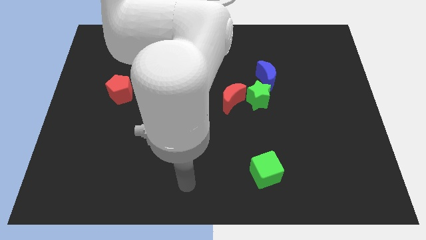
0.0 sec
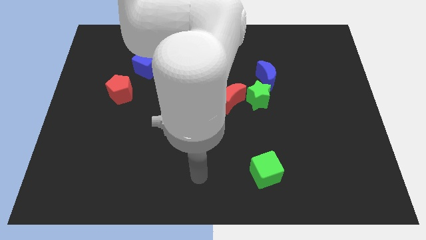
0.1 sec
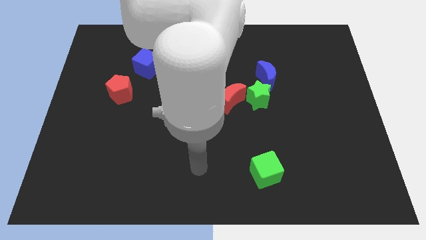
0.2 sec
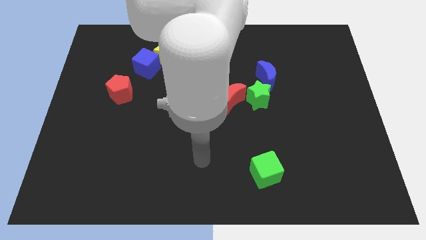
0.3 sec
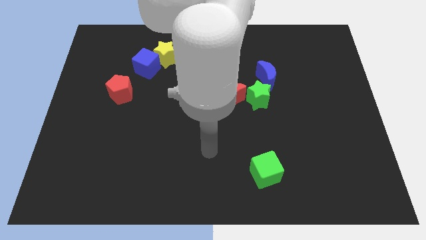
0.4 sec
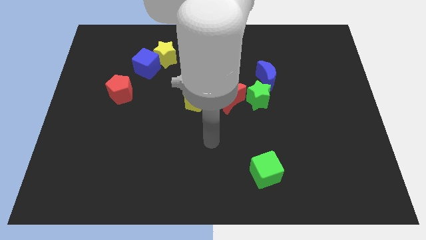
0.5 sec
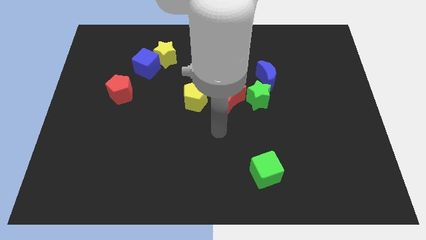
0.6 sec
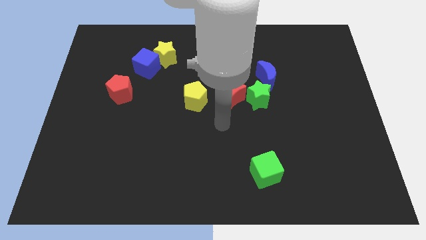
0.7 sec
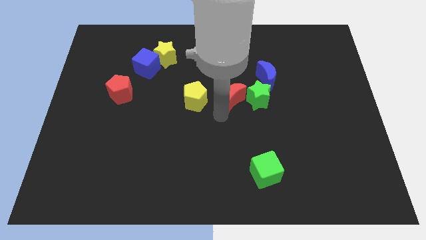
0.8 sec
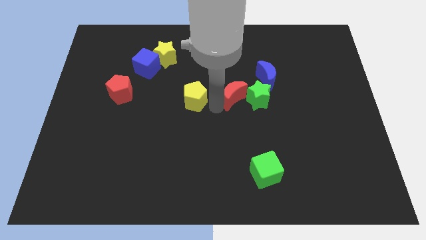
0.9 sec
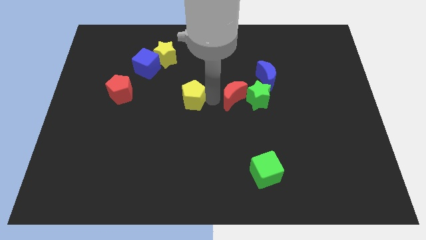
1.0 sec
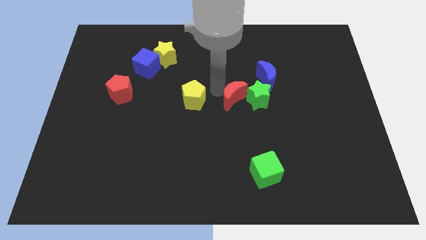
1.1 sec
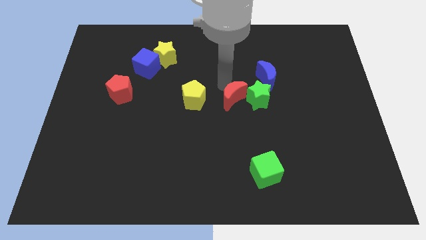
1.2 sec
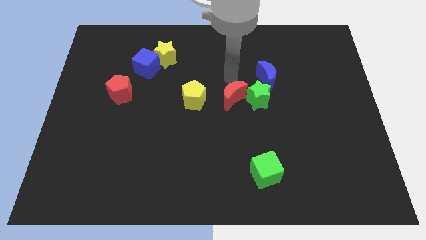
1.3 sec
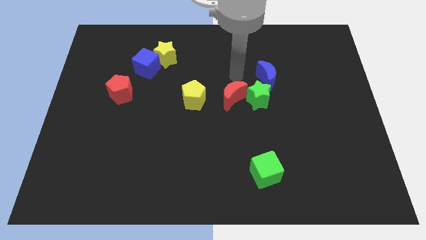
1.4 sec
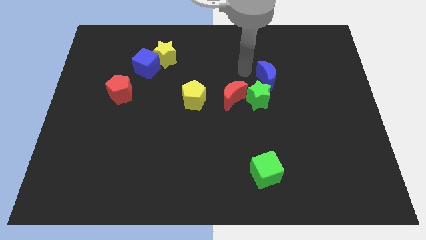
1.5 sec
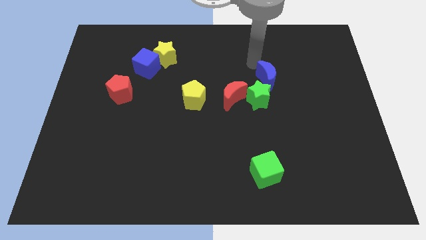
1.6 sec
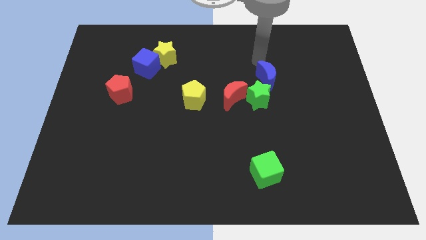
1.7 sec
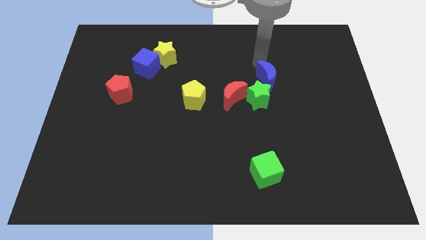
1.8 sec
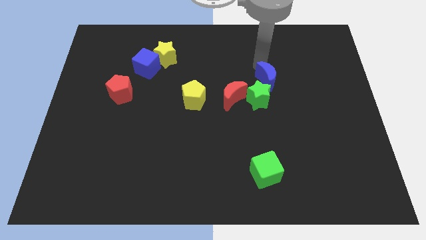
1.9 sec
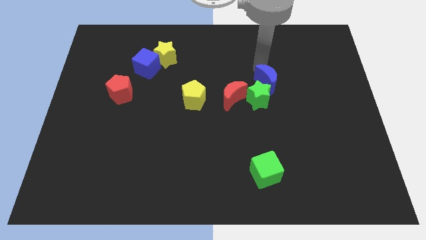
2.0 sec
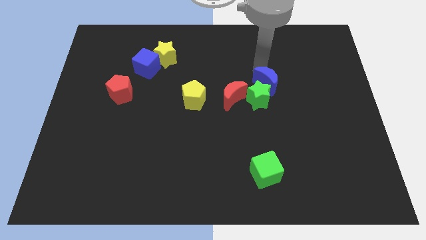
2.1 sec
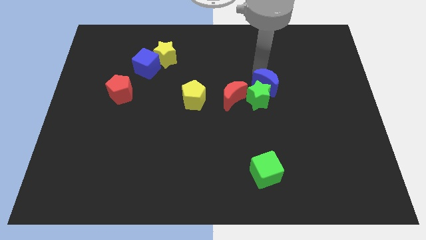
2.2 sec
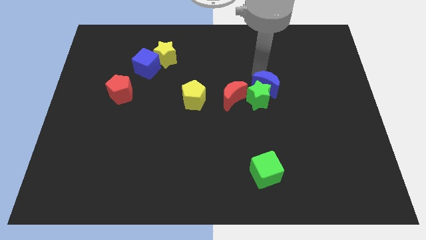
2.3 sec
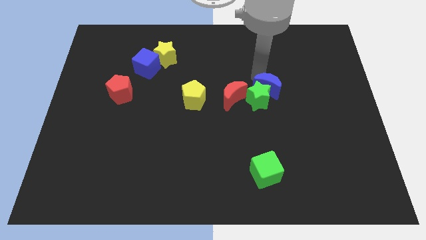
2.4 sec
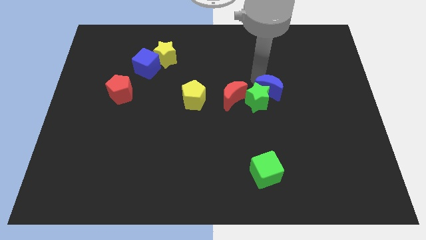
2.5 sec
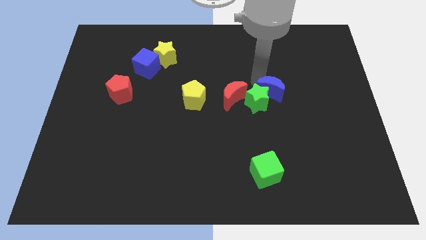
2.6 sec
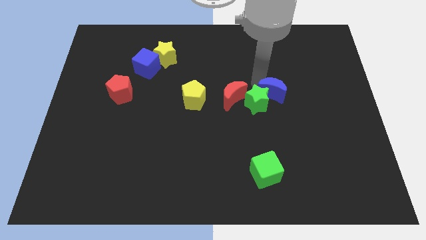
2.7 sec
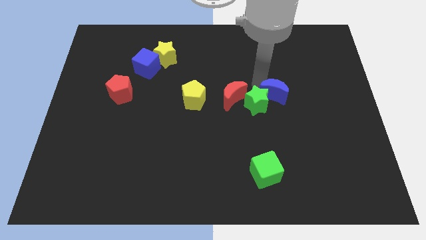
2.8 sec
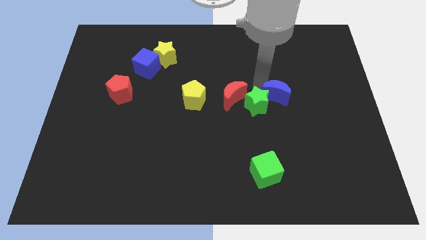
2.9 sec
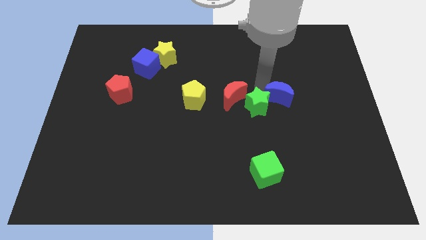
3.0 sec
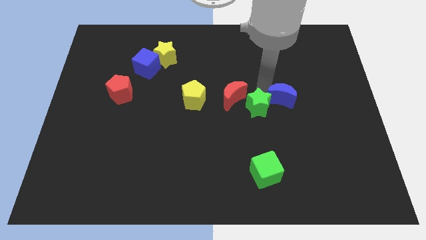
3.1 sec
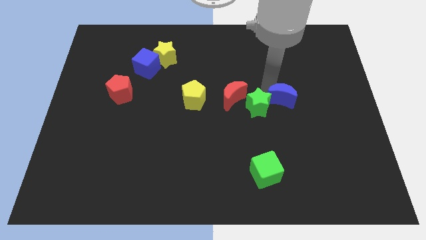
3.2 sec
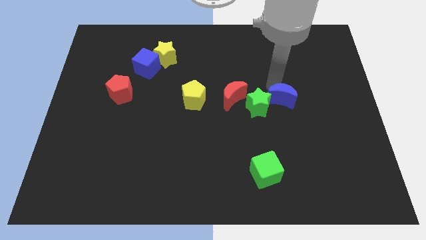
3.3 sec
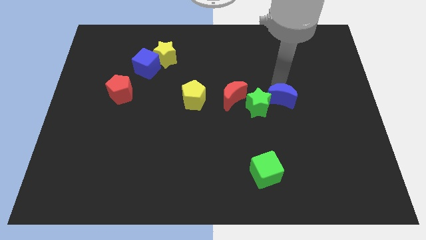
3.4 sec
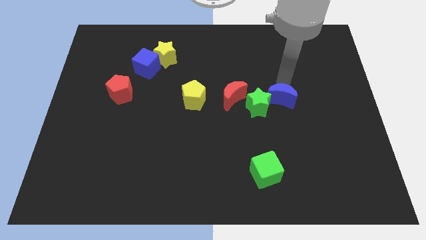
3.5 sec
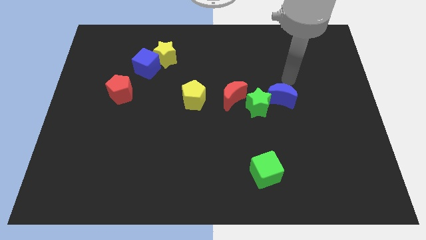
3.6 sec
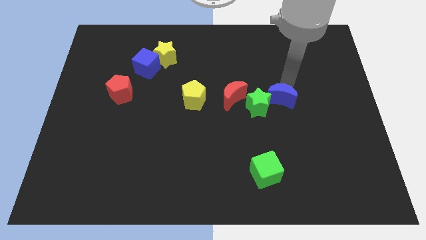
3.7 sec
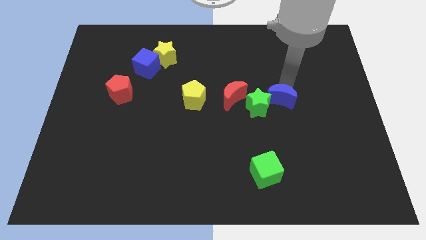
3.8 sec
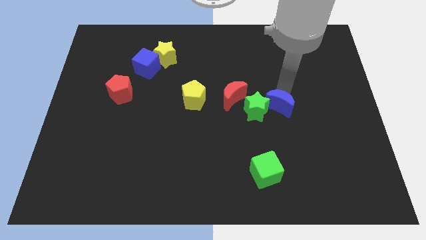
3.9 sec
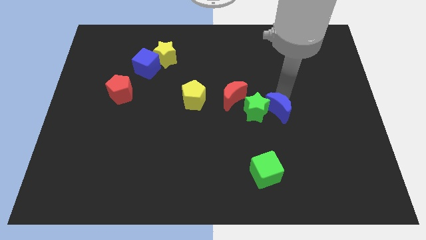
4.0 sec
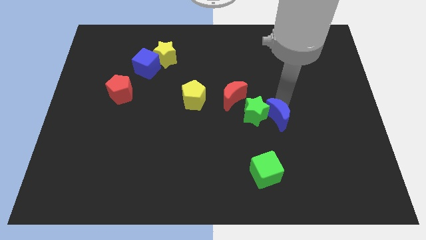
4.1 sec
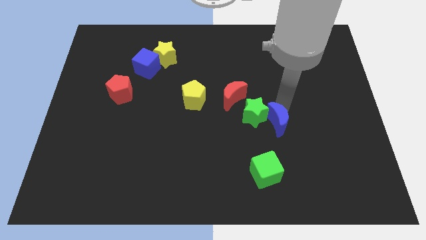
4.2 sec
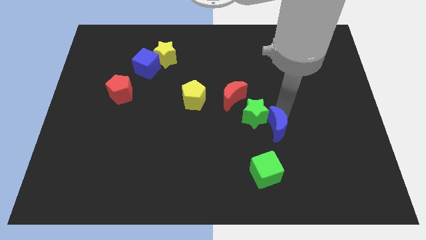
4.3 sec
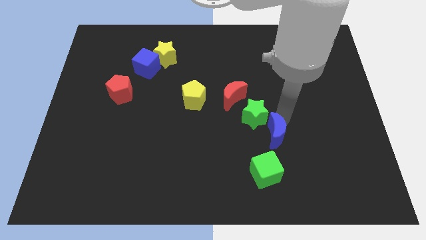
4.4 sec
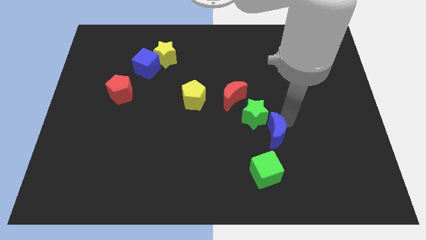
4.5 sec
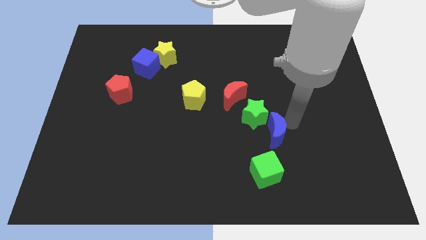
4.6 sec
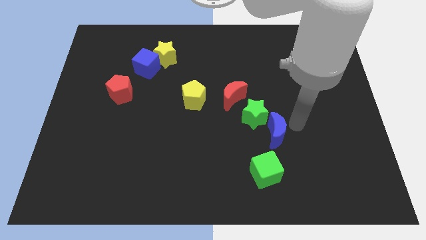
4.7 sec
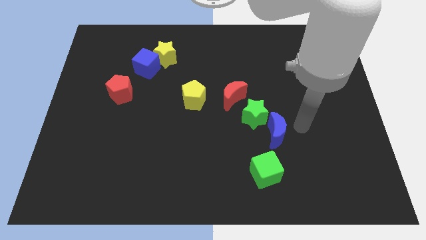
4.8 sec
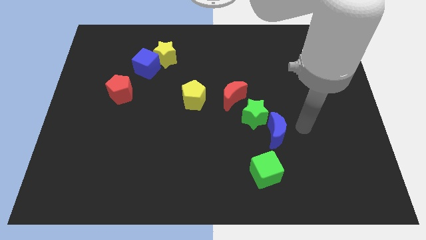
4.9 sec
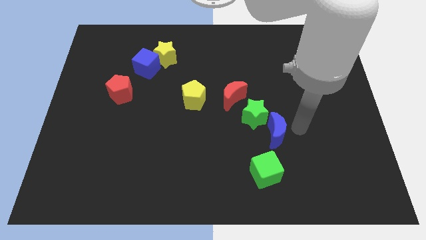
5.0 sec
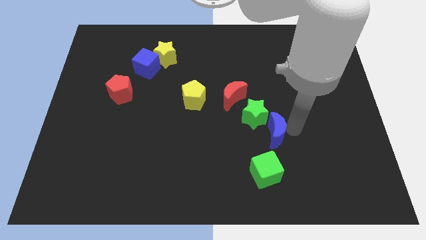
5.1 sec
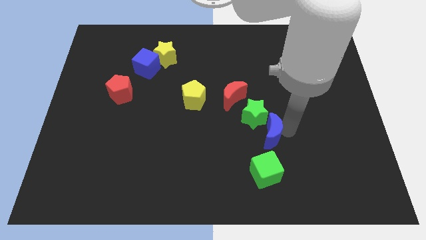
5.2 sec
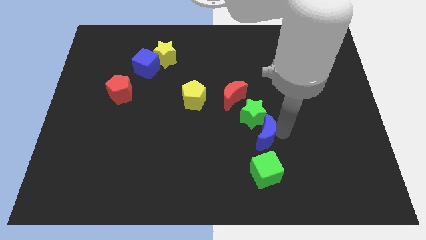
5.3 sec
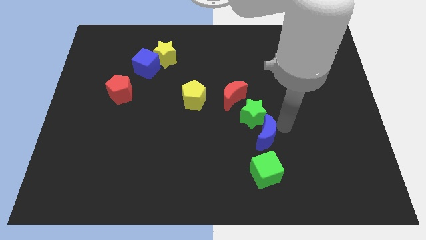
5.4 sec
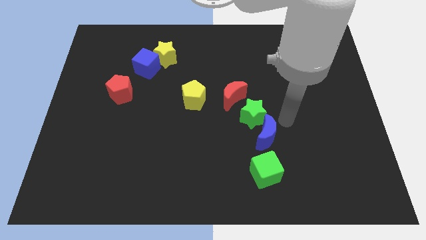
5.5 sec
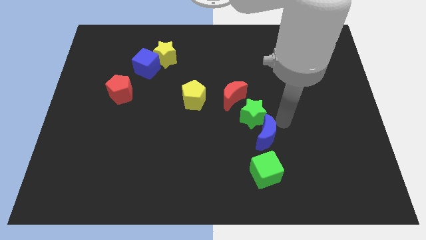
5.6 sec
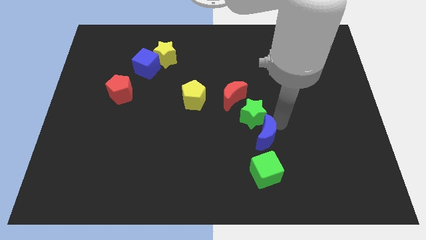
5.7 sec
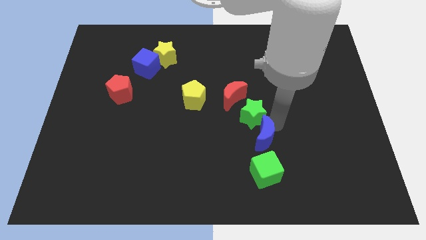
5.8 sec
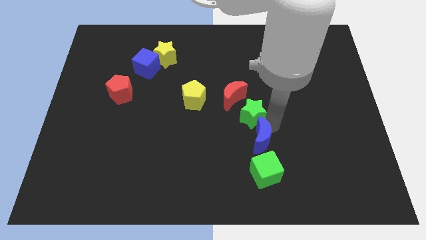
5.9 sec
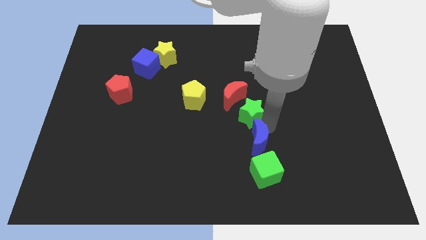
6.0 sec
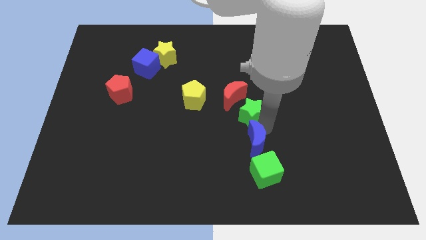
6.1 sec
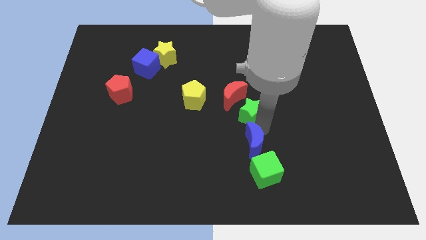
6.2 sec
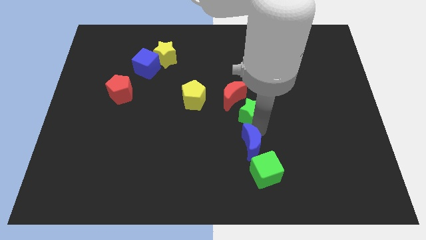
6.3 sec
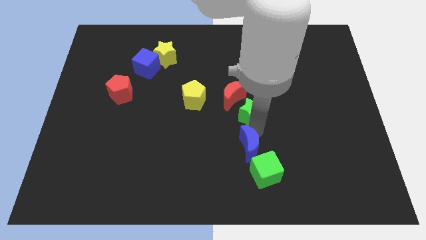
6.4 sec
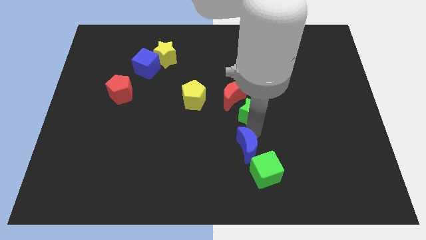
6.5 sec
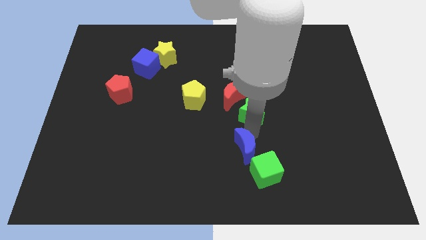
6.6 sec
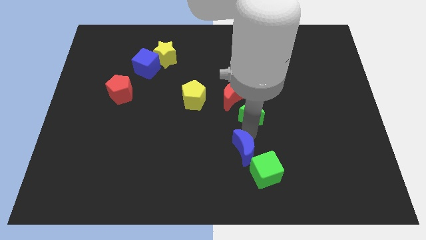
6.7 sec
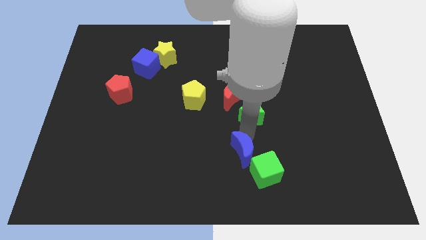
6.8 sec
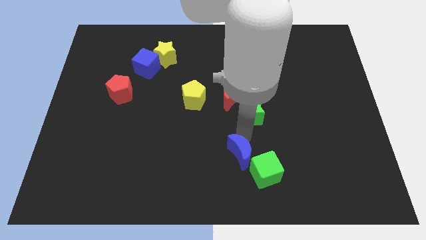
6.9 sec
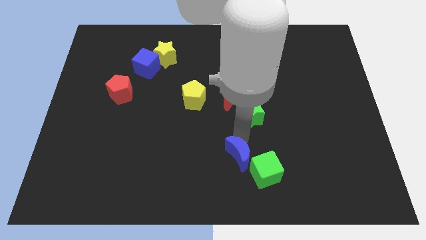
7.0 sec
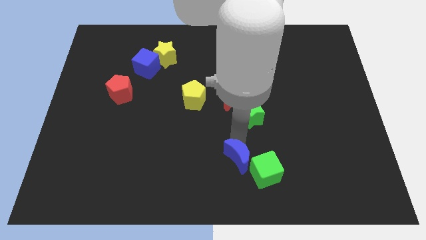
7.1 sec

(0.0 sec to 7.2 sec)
slide the blue moon to the bottom
